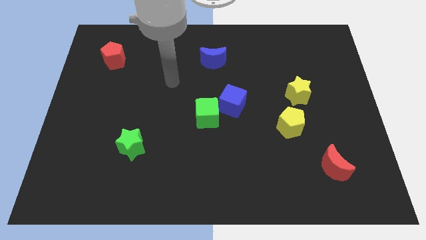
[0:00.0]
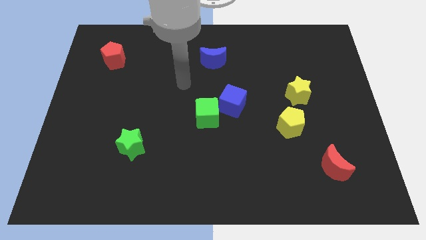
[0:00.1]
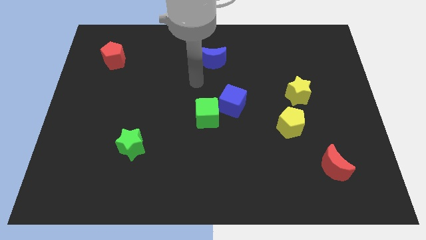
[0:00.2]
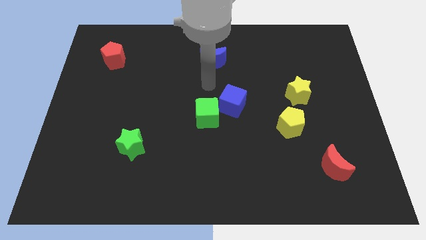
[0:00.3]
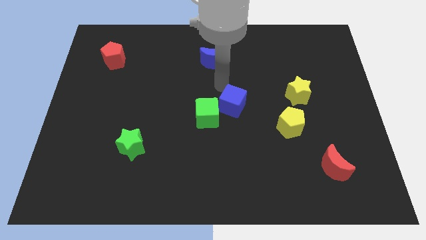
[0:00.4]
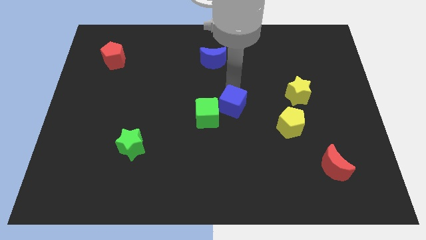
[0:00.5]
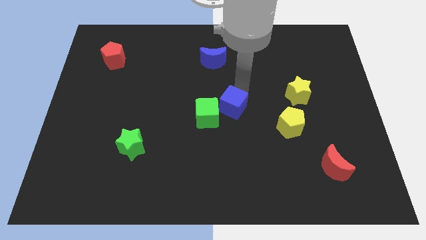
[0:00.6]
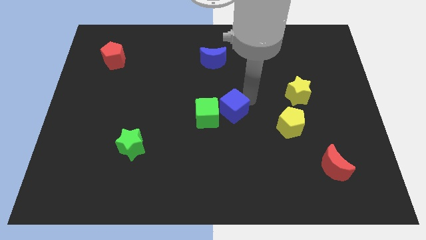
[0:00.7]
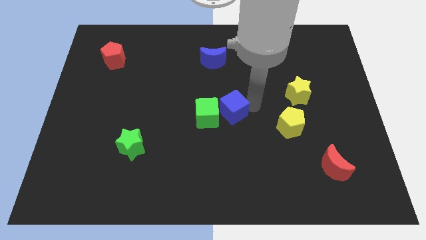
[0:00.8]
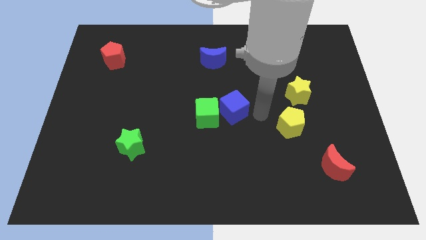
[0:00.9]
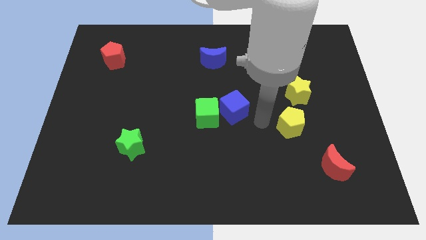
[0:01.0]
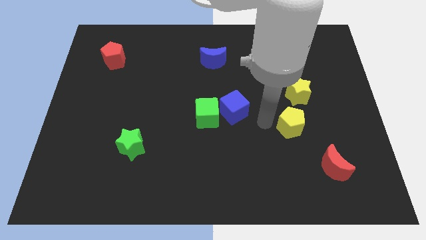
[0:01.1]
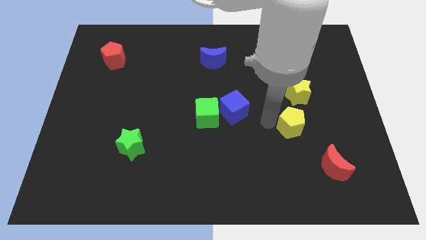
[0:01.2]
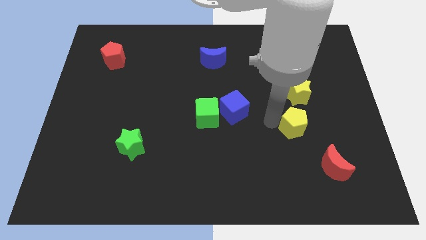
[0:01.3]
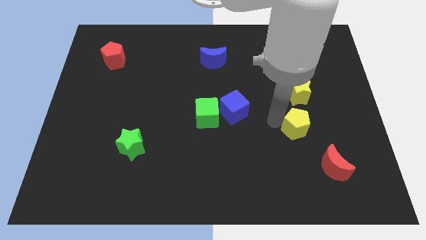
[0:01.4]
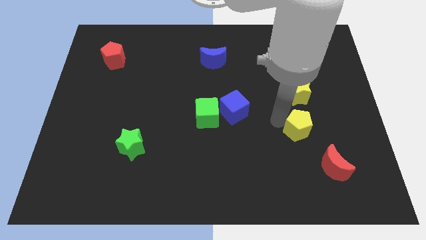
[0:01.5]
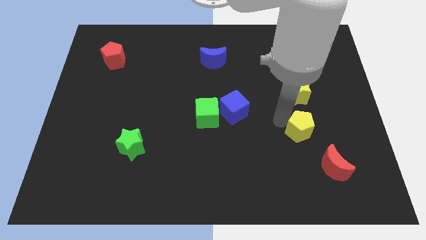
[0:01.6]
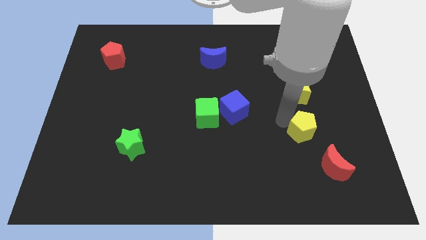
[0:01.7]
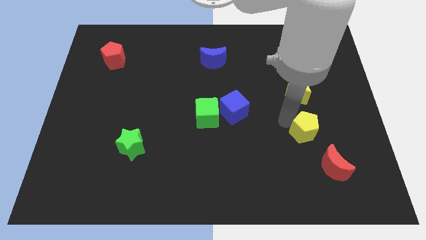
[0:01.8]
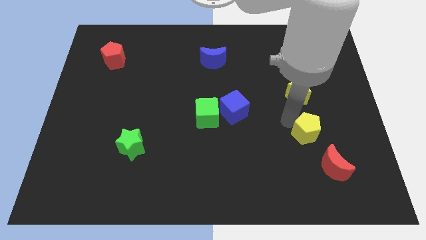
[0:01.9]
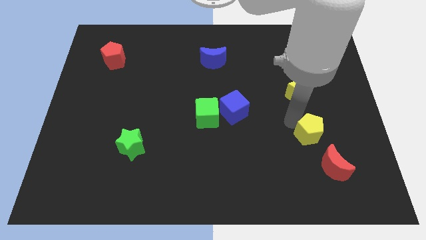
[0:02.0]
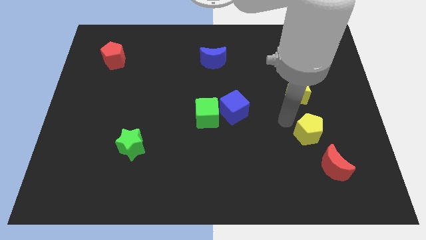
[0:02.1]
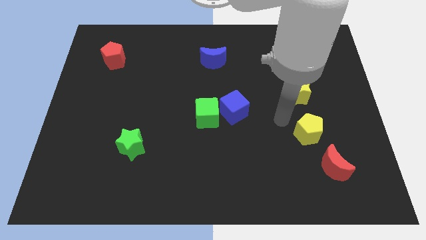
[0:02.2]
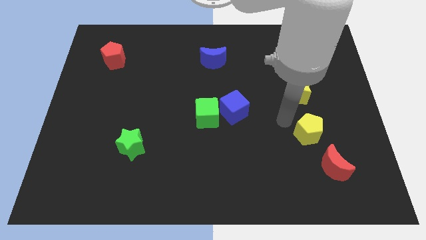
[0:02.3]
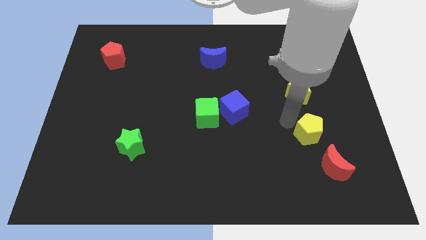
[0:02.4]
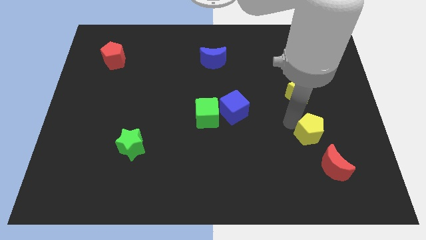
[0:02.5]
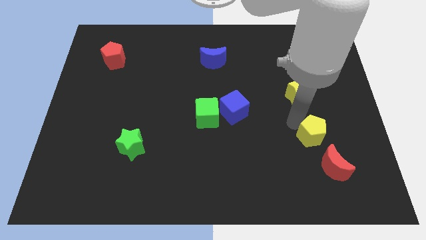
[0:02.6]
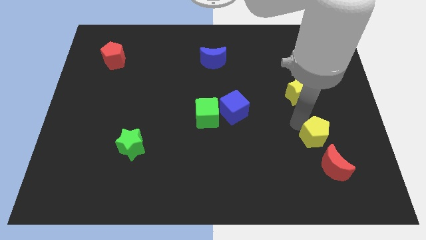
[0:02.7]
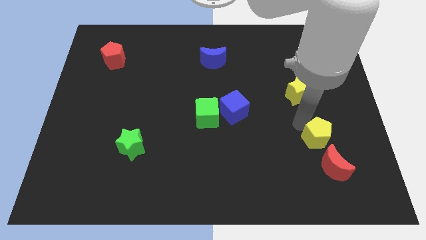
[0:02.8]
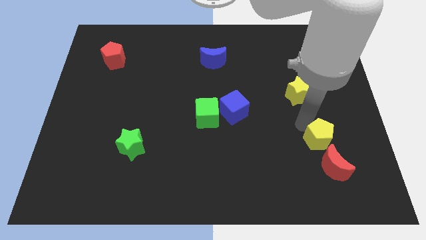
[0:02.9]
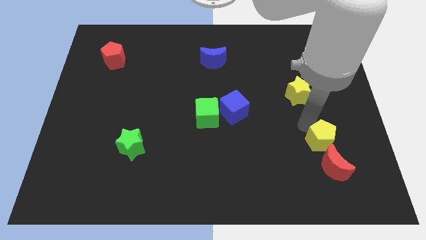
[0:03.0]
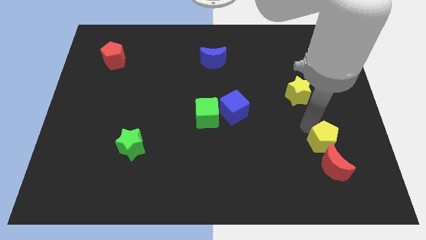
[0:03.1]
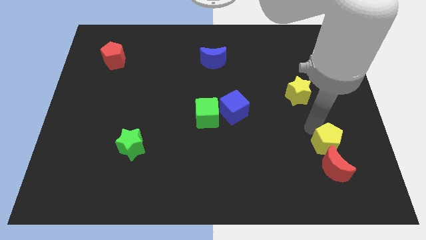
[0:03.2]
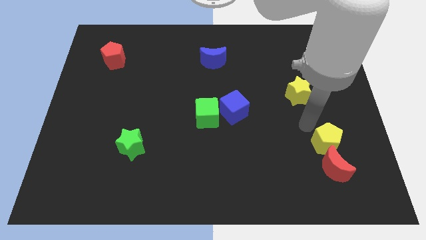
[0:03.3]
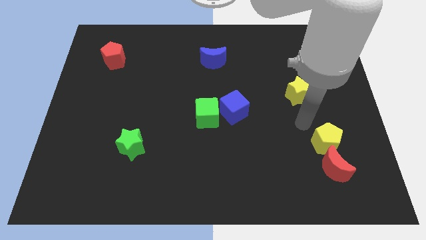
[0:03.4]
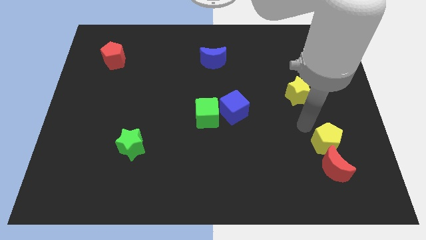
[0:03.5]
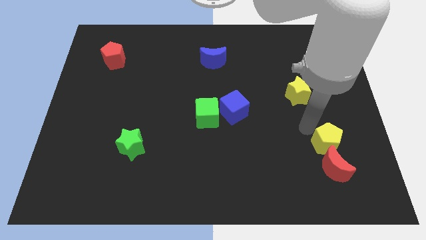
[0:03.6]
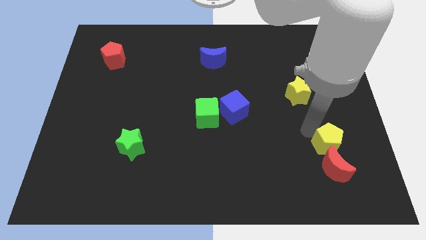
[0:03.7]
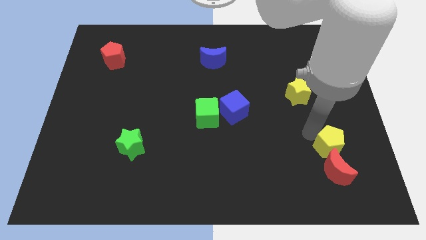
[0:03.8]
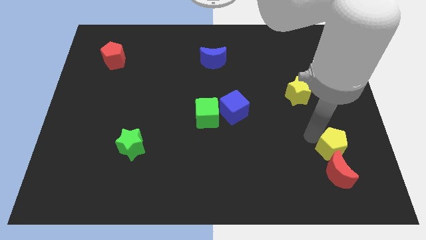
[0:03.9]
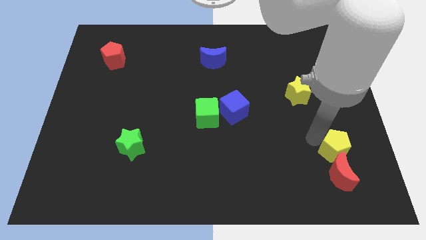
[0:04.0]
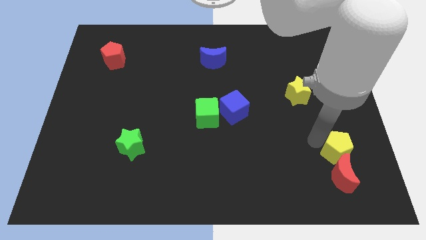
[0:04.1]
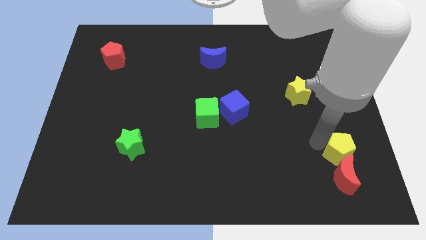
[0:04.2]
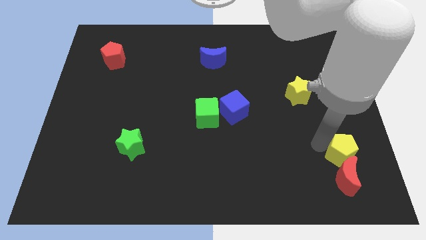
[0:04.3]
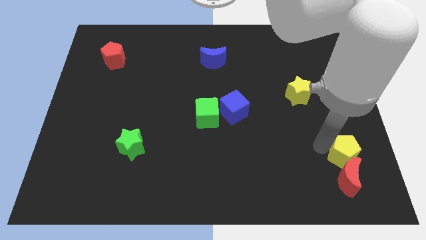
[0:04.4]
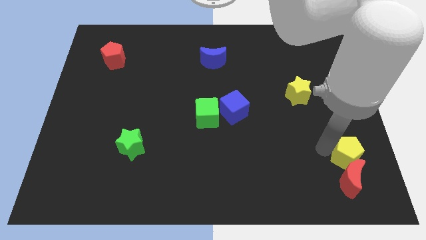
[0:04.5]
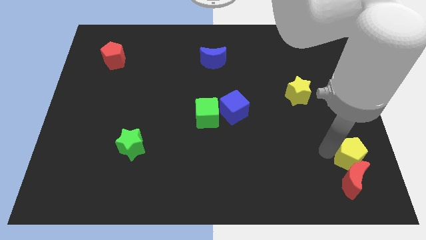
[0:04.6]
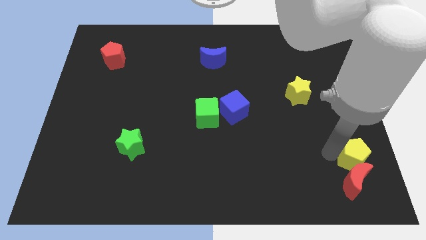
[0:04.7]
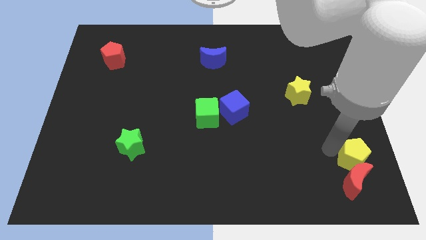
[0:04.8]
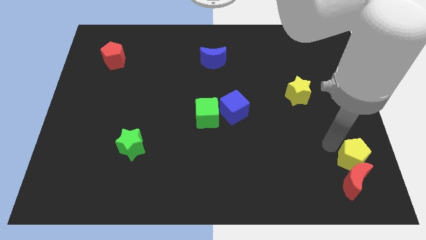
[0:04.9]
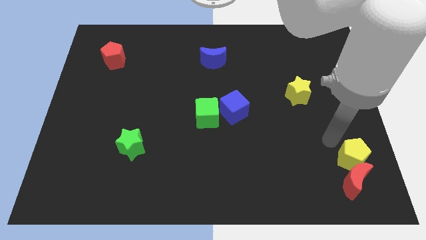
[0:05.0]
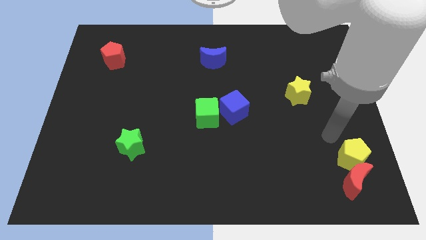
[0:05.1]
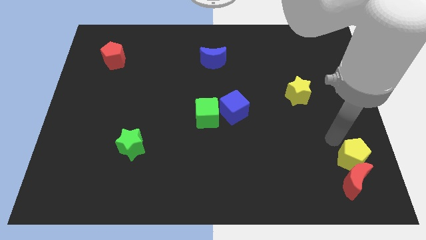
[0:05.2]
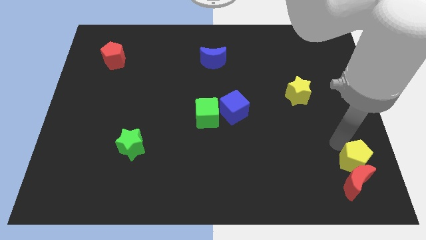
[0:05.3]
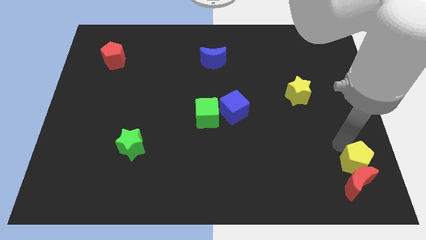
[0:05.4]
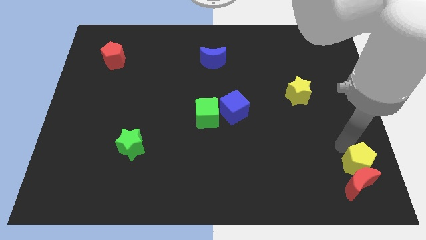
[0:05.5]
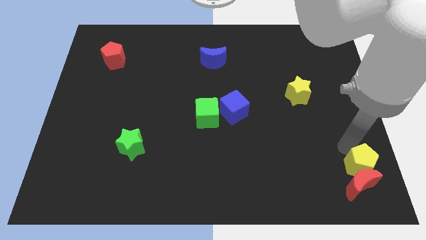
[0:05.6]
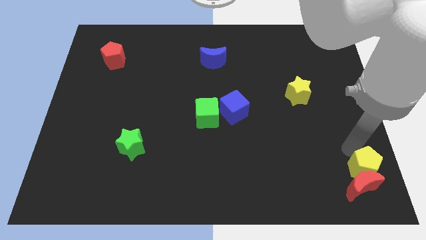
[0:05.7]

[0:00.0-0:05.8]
push the yellow pentagon to the bottom right of the board

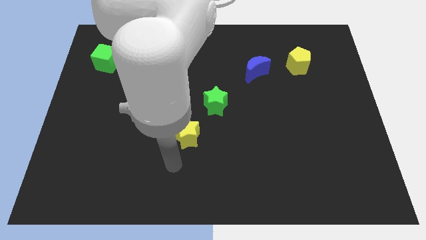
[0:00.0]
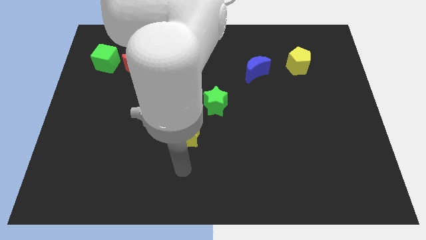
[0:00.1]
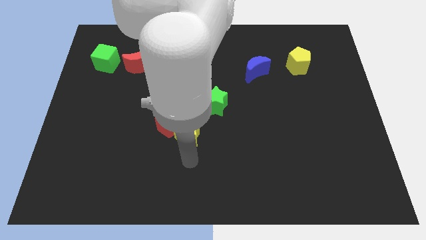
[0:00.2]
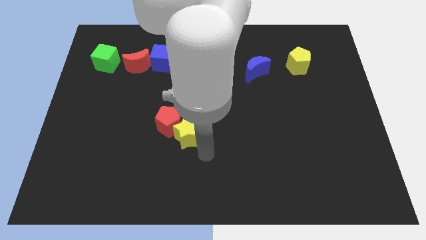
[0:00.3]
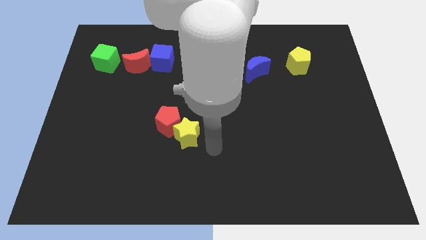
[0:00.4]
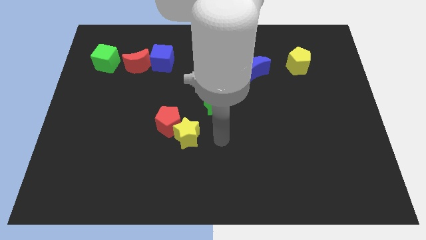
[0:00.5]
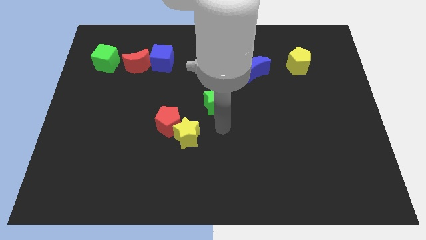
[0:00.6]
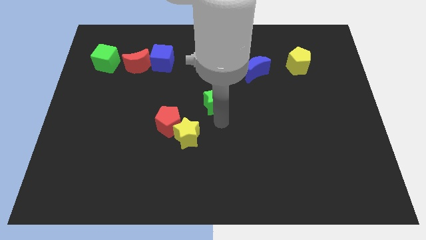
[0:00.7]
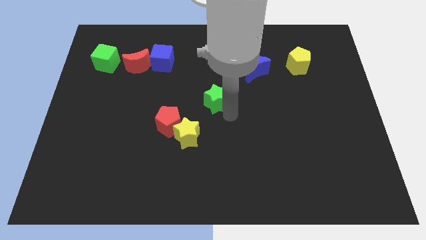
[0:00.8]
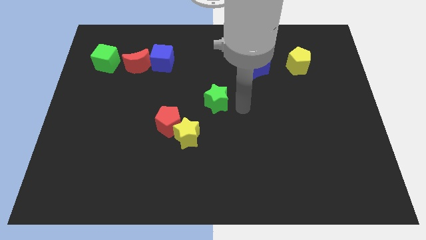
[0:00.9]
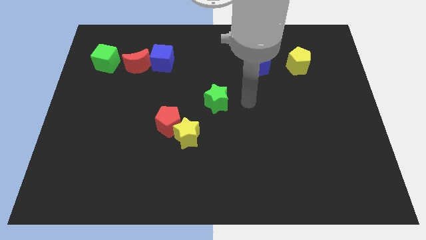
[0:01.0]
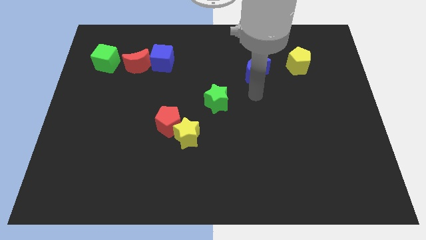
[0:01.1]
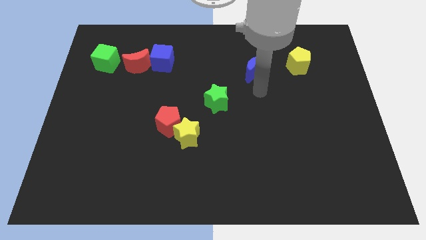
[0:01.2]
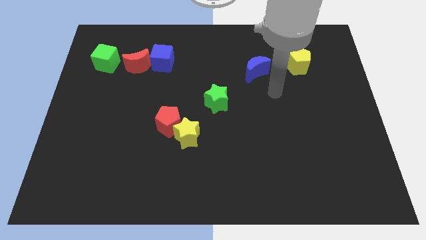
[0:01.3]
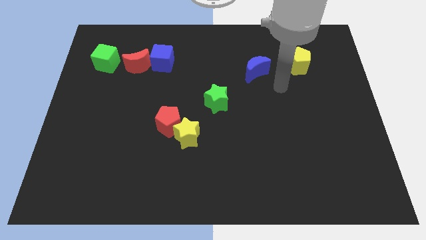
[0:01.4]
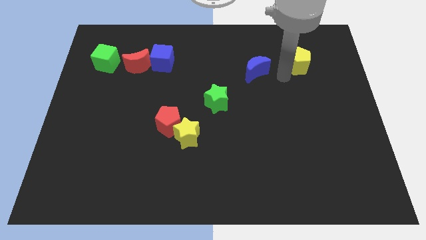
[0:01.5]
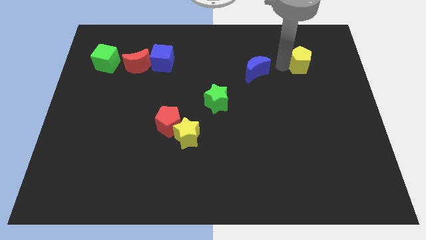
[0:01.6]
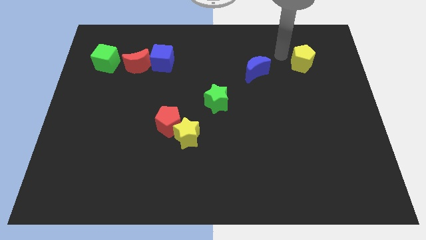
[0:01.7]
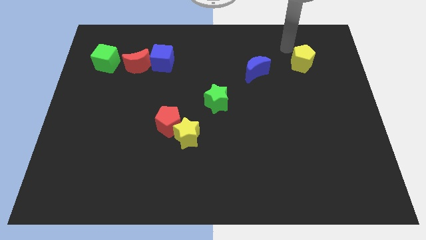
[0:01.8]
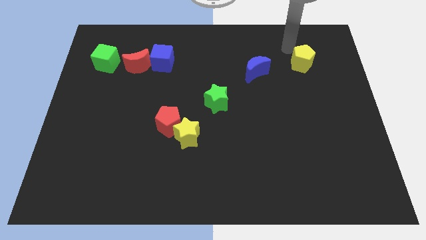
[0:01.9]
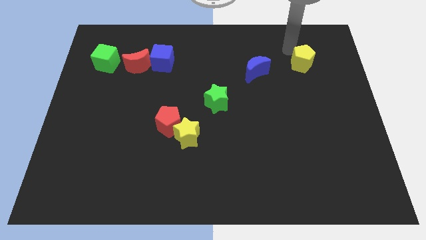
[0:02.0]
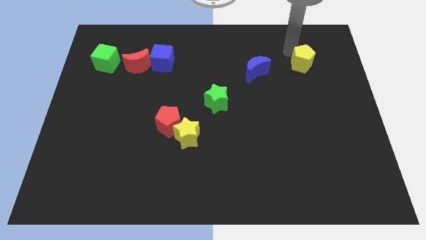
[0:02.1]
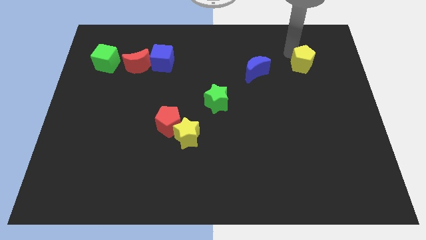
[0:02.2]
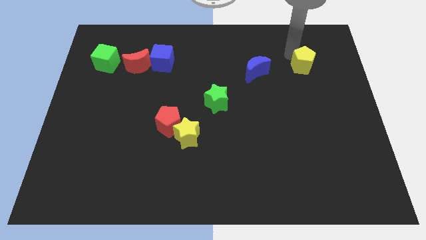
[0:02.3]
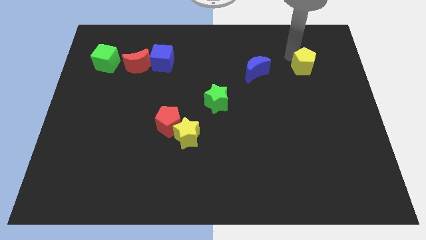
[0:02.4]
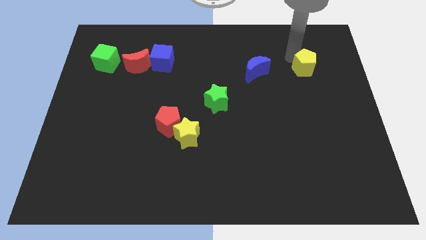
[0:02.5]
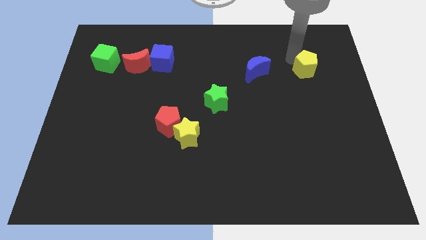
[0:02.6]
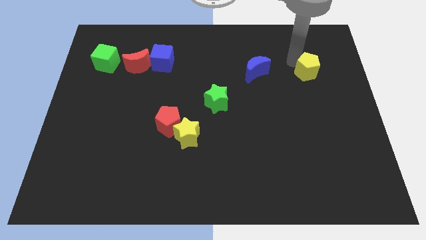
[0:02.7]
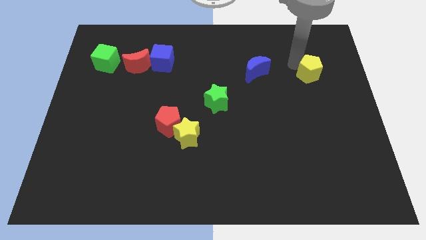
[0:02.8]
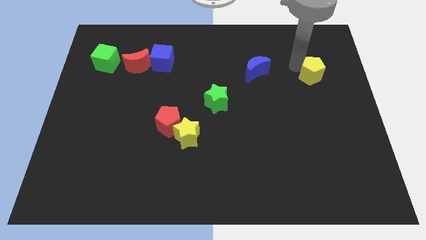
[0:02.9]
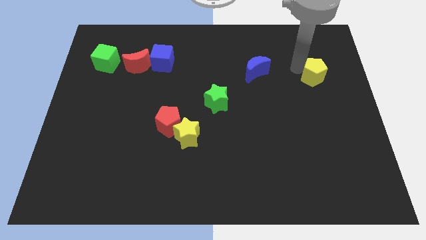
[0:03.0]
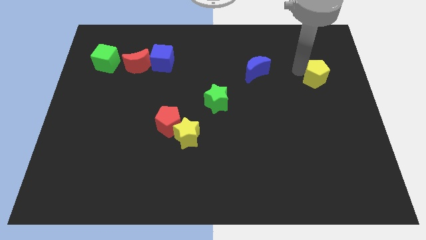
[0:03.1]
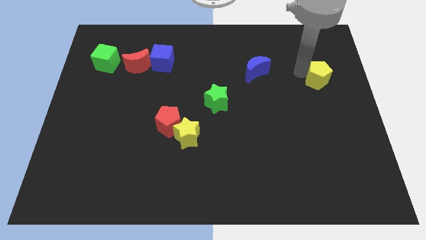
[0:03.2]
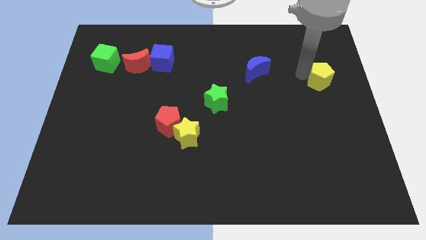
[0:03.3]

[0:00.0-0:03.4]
slide the yellow pentagon to the center right
